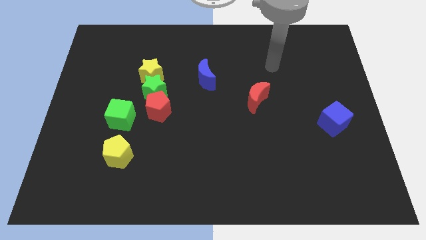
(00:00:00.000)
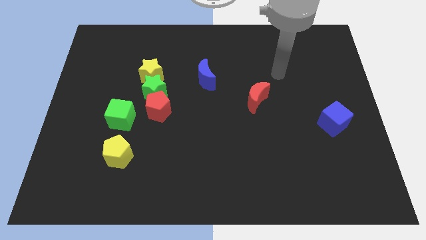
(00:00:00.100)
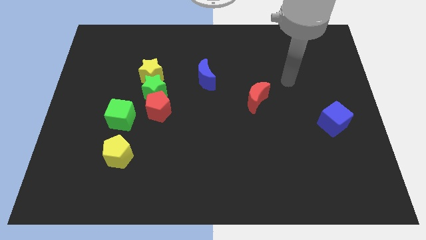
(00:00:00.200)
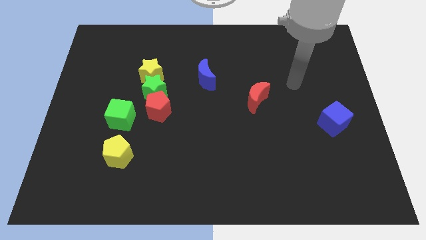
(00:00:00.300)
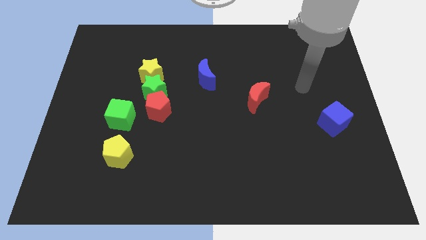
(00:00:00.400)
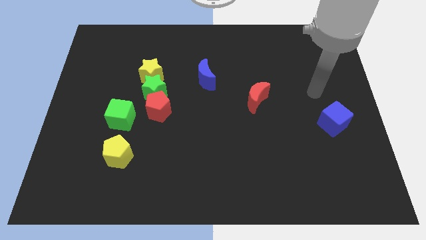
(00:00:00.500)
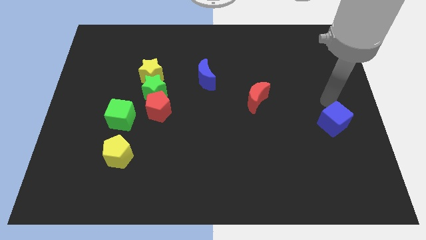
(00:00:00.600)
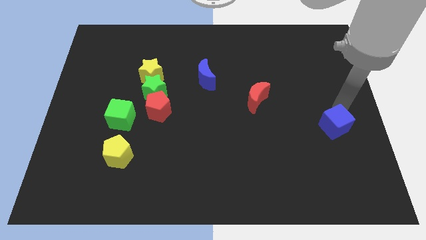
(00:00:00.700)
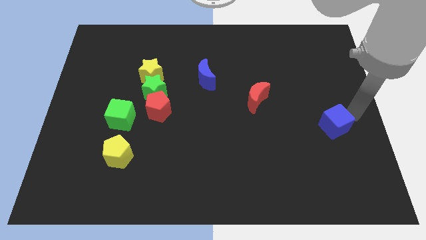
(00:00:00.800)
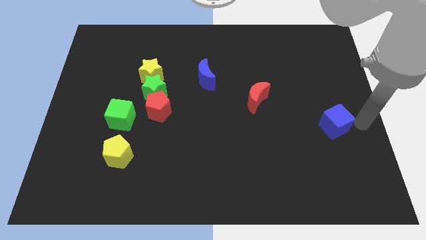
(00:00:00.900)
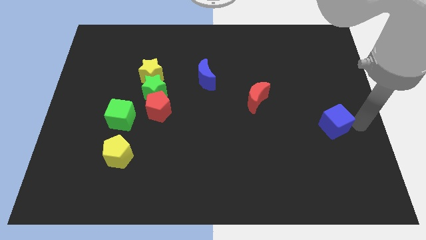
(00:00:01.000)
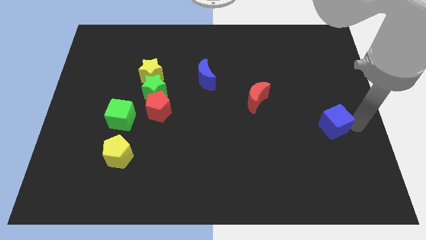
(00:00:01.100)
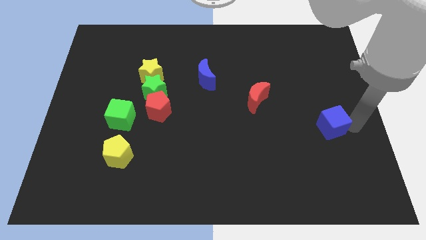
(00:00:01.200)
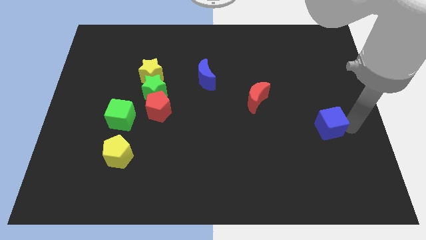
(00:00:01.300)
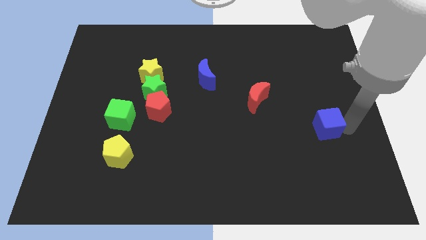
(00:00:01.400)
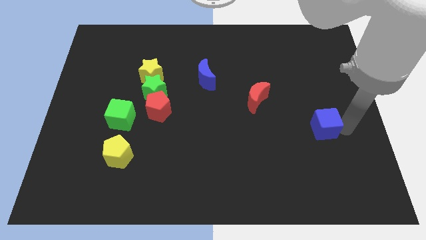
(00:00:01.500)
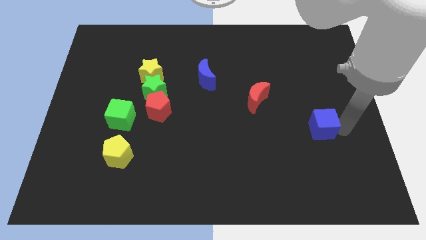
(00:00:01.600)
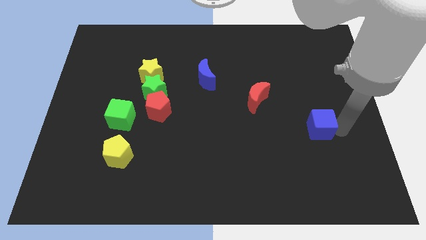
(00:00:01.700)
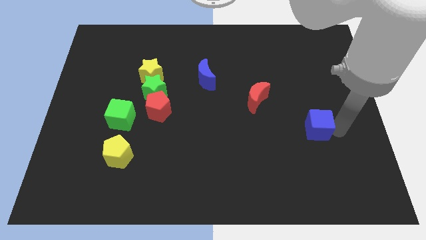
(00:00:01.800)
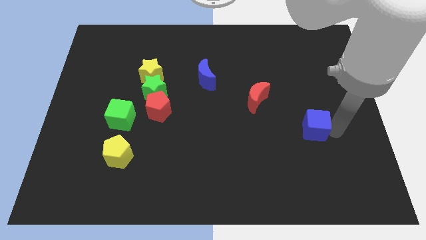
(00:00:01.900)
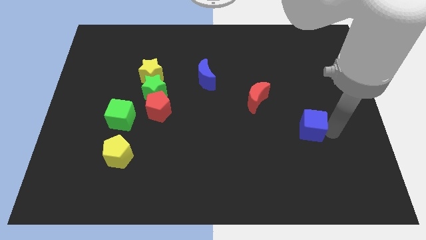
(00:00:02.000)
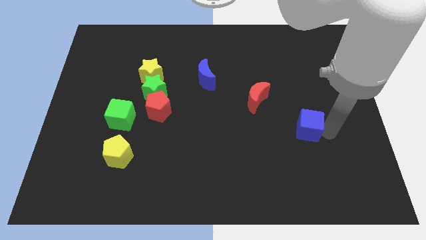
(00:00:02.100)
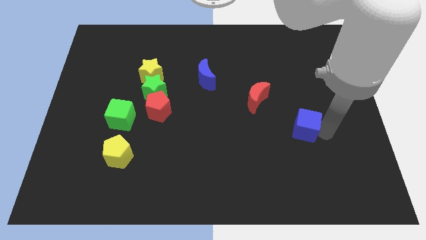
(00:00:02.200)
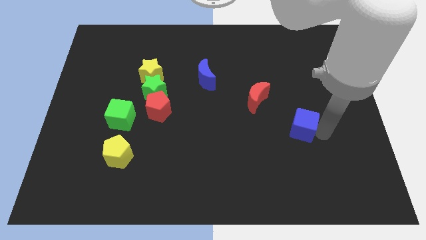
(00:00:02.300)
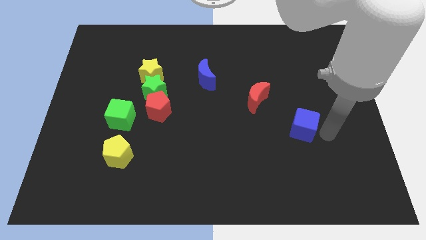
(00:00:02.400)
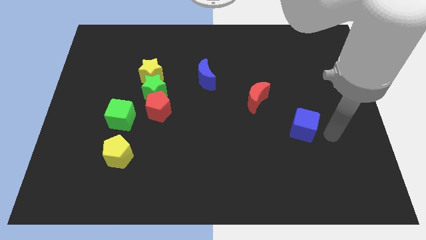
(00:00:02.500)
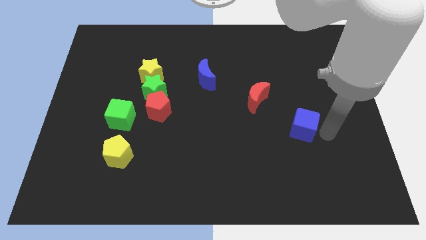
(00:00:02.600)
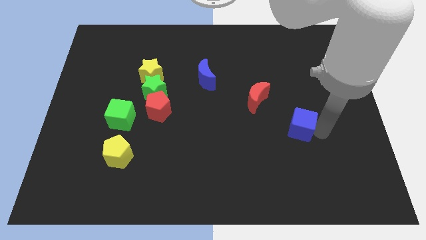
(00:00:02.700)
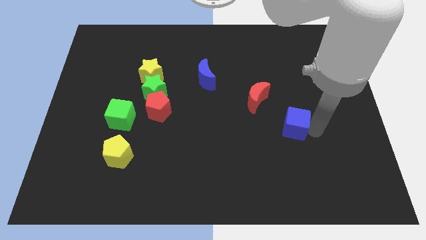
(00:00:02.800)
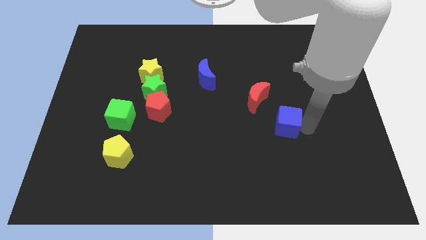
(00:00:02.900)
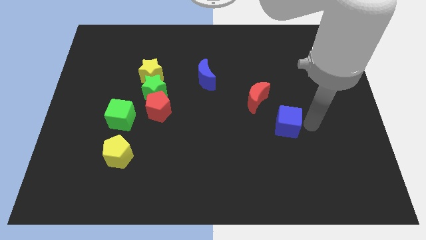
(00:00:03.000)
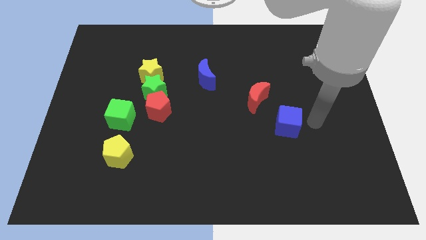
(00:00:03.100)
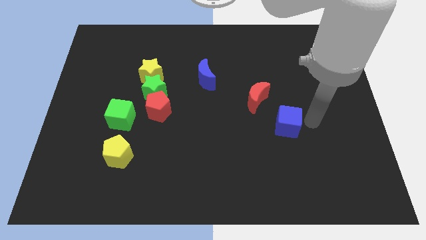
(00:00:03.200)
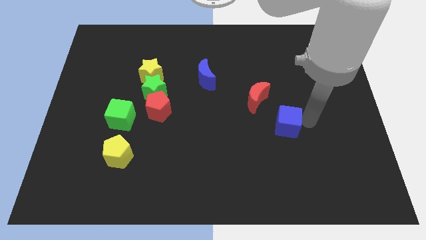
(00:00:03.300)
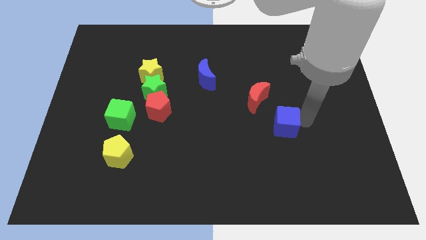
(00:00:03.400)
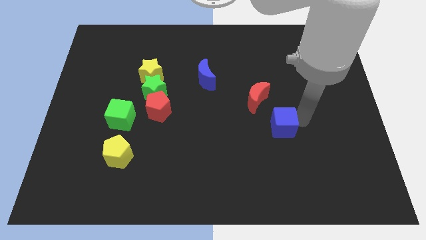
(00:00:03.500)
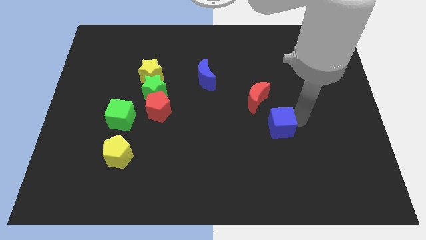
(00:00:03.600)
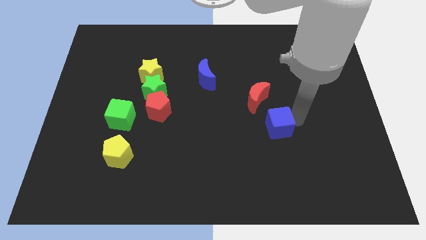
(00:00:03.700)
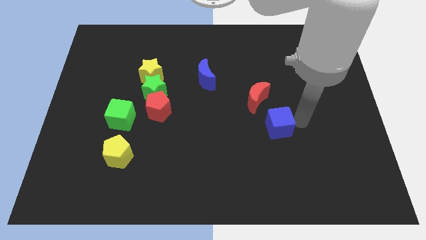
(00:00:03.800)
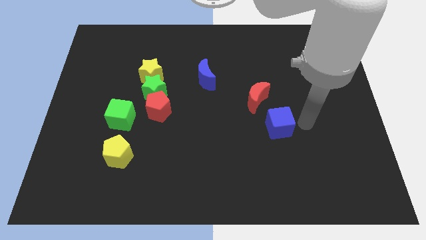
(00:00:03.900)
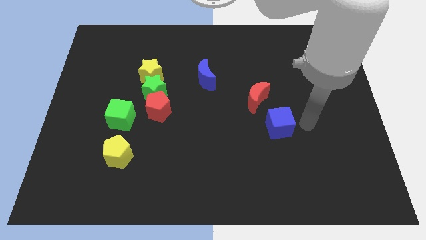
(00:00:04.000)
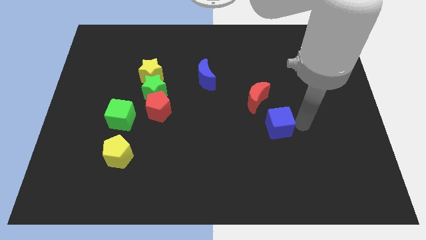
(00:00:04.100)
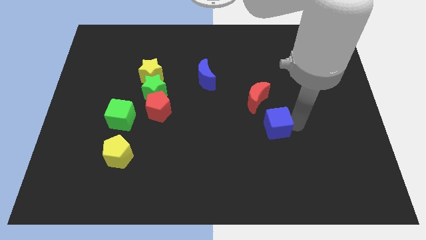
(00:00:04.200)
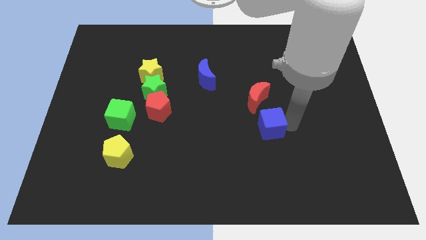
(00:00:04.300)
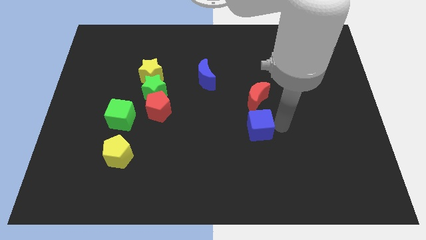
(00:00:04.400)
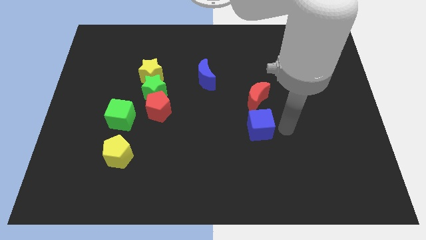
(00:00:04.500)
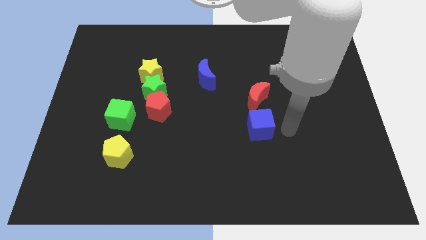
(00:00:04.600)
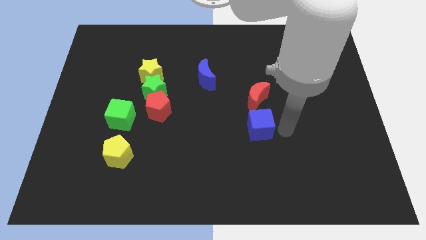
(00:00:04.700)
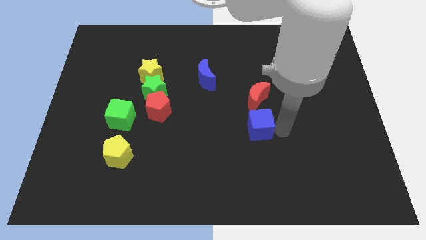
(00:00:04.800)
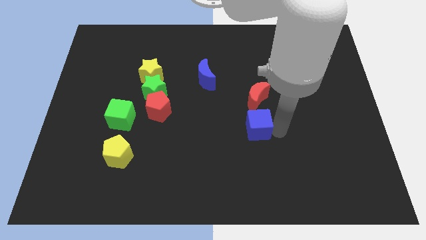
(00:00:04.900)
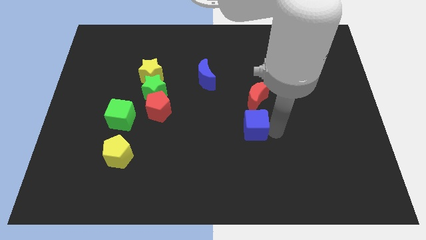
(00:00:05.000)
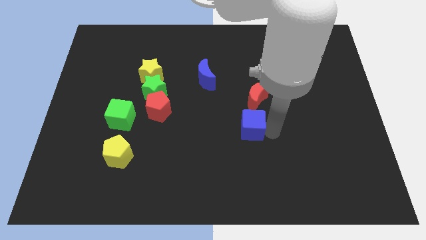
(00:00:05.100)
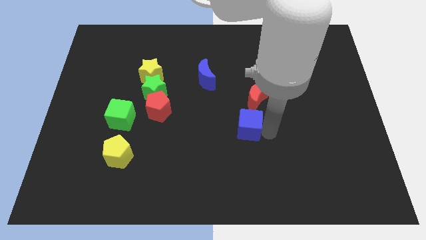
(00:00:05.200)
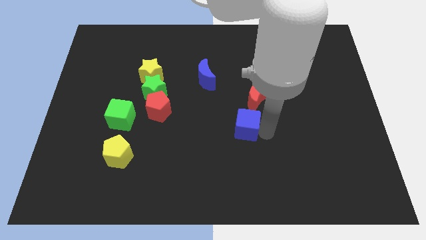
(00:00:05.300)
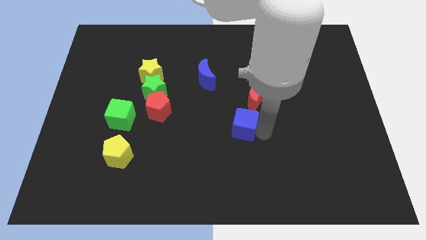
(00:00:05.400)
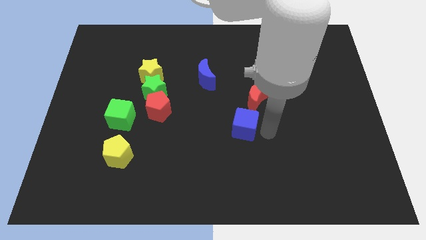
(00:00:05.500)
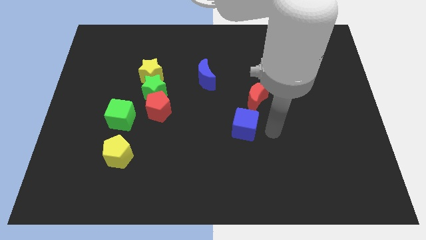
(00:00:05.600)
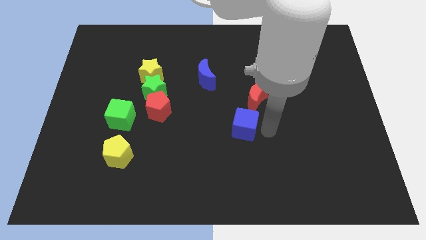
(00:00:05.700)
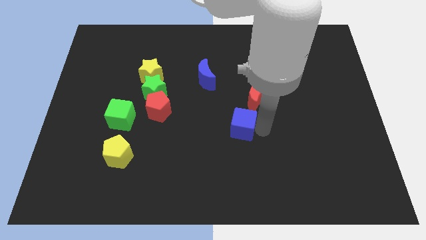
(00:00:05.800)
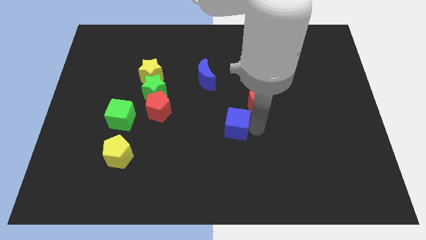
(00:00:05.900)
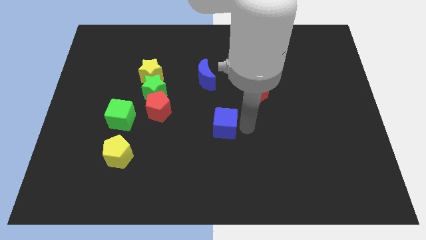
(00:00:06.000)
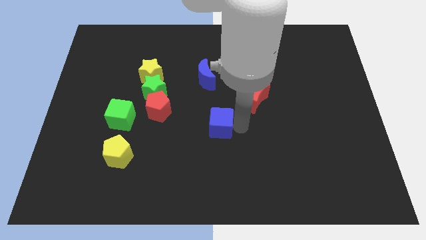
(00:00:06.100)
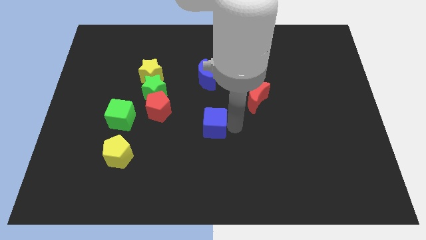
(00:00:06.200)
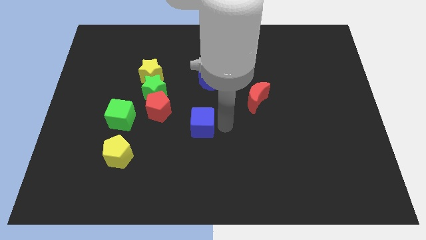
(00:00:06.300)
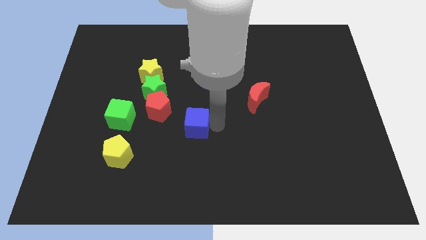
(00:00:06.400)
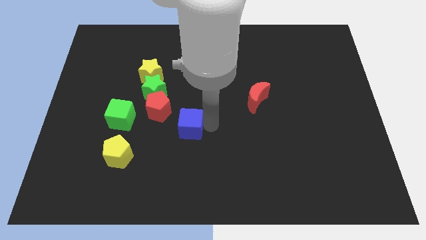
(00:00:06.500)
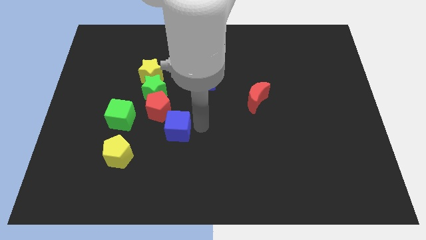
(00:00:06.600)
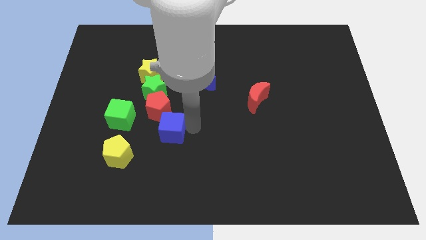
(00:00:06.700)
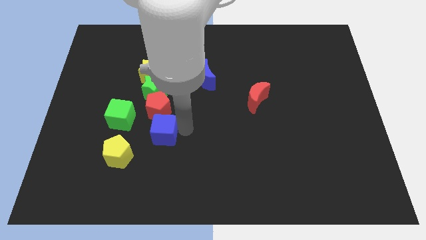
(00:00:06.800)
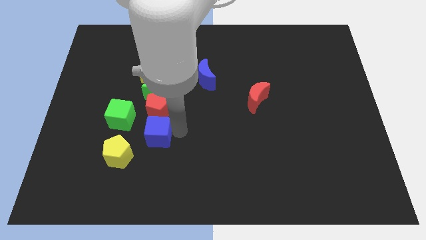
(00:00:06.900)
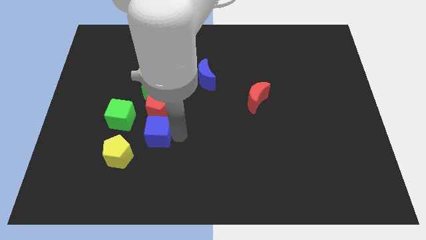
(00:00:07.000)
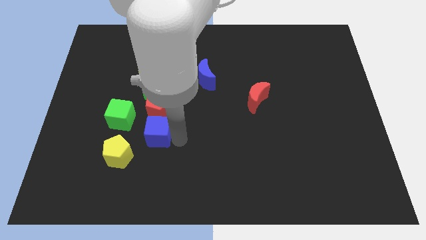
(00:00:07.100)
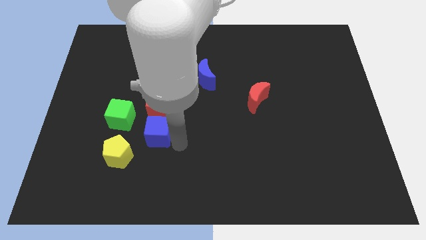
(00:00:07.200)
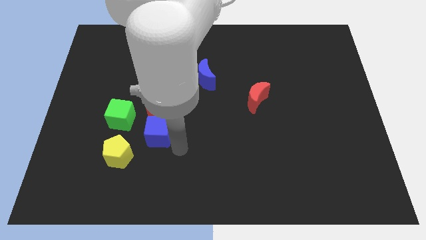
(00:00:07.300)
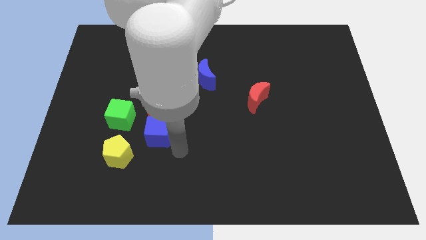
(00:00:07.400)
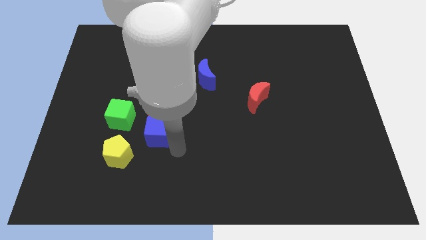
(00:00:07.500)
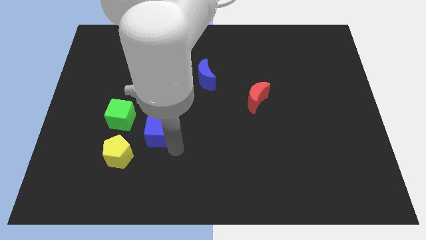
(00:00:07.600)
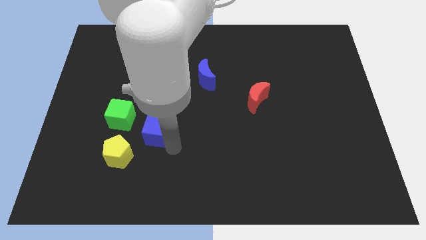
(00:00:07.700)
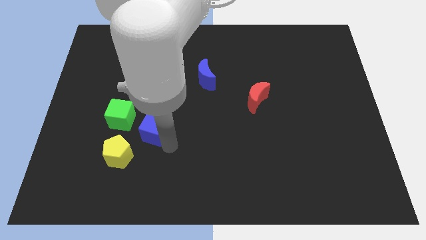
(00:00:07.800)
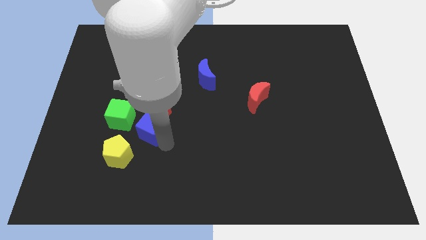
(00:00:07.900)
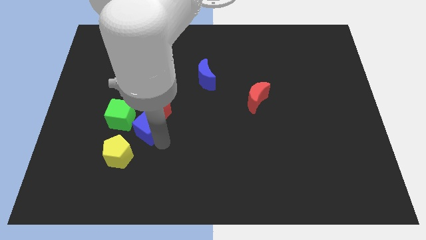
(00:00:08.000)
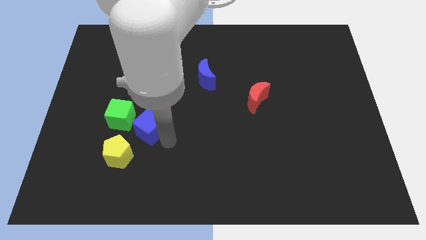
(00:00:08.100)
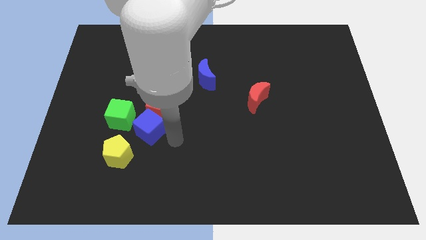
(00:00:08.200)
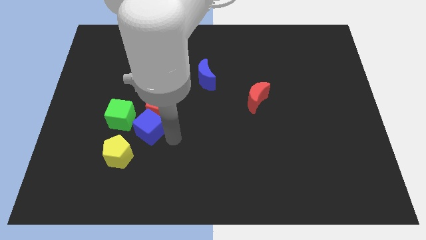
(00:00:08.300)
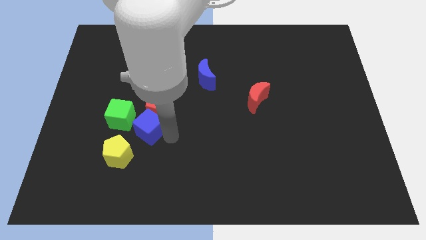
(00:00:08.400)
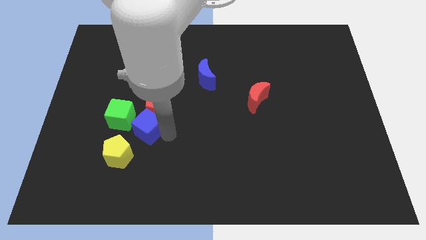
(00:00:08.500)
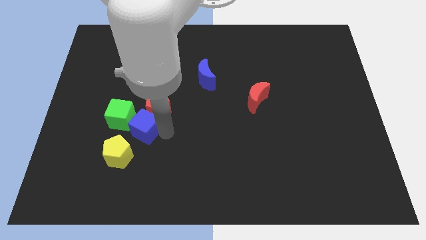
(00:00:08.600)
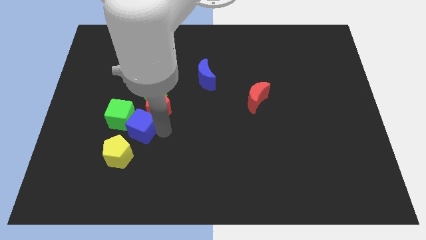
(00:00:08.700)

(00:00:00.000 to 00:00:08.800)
push the blue cube towards the green cube
